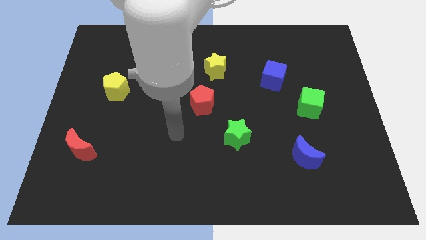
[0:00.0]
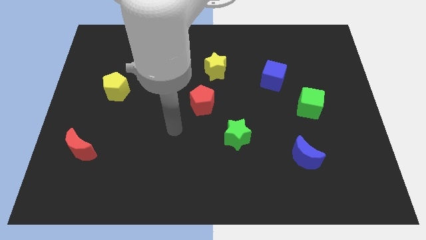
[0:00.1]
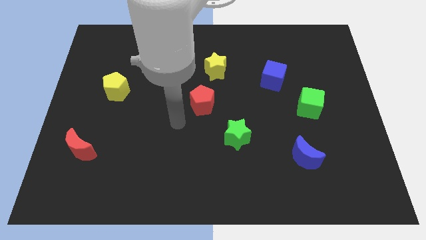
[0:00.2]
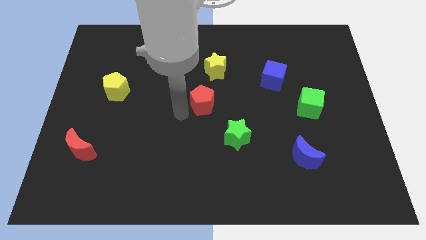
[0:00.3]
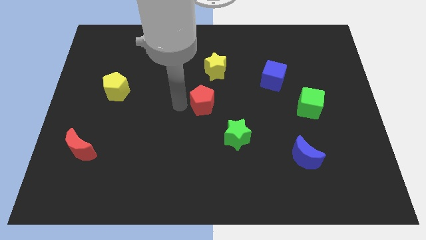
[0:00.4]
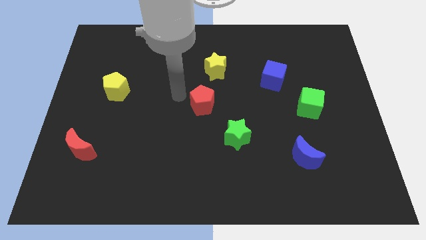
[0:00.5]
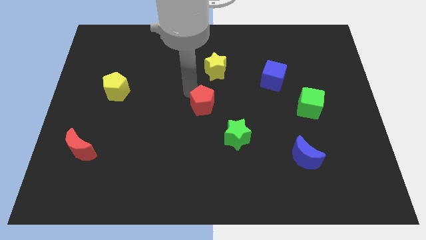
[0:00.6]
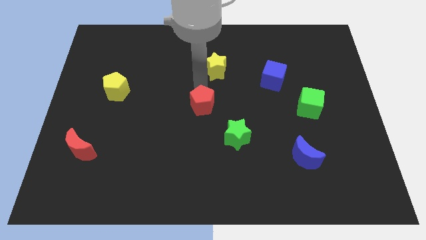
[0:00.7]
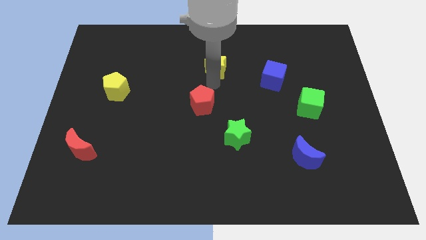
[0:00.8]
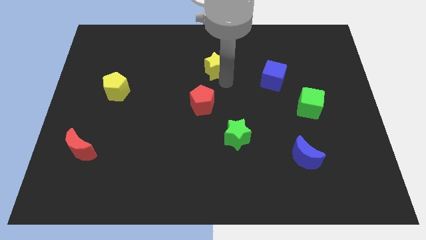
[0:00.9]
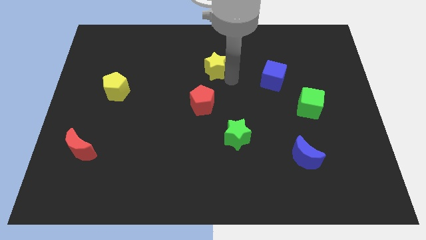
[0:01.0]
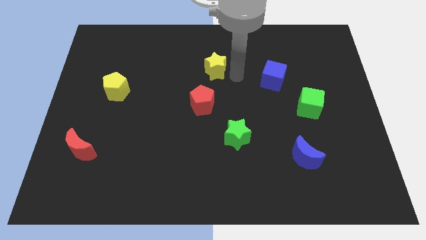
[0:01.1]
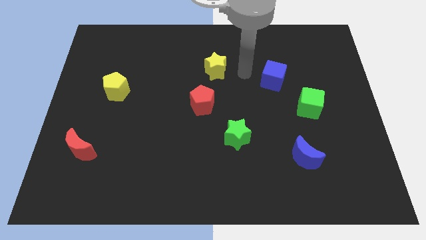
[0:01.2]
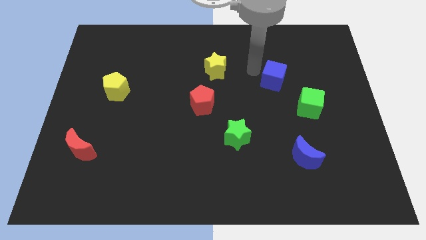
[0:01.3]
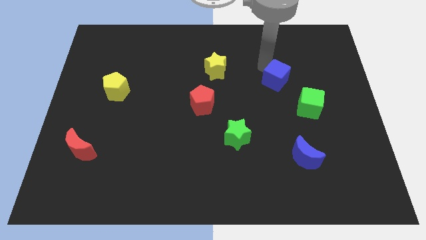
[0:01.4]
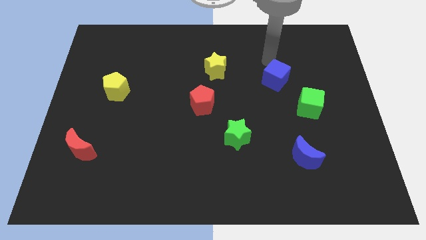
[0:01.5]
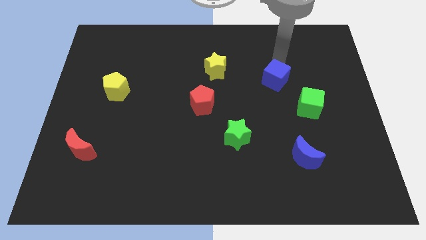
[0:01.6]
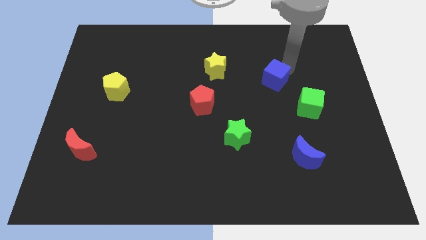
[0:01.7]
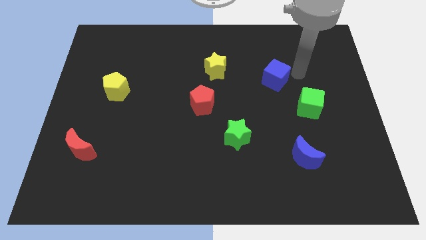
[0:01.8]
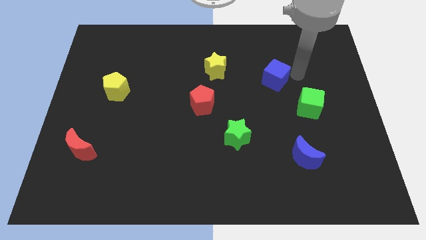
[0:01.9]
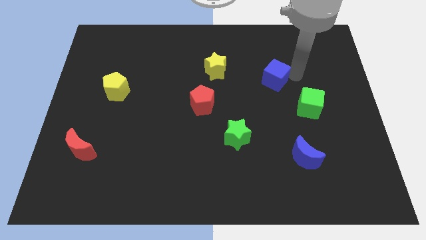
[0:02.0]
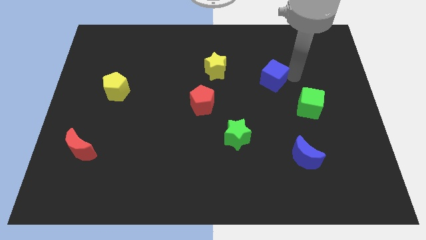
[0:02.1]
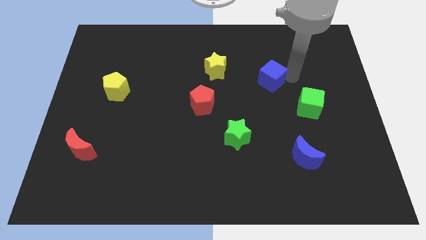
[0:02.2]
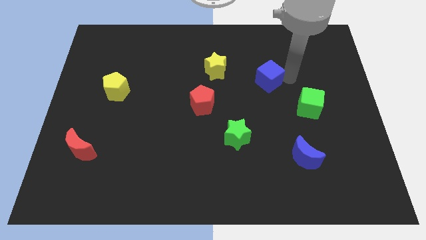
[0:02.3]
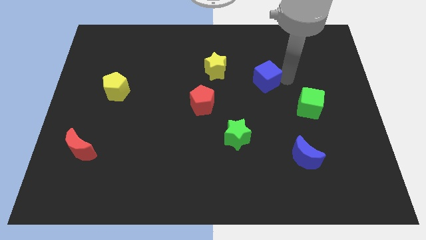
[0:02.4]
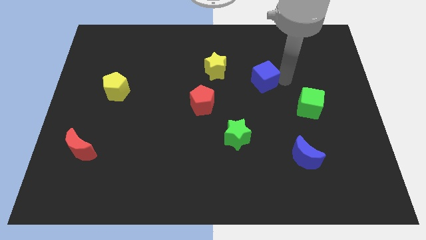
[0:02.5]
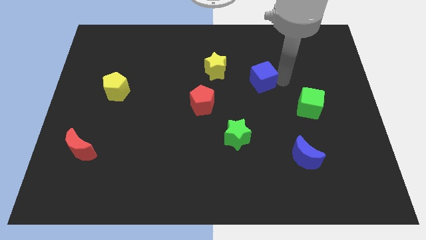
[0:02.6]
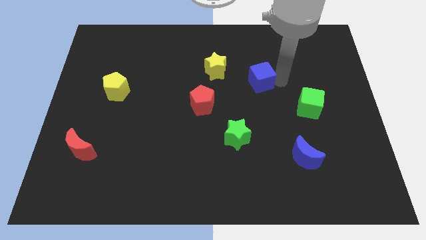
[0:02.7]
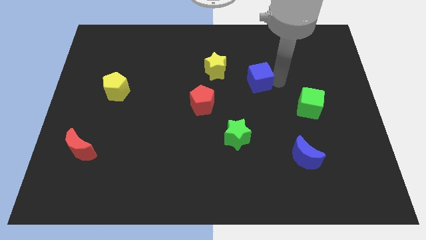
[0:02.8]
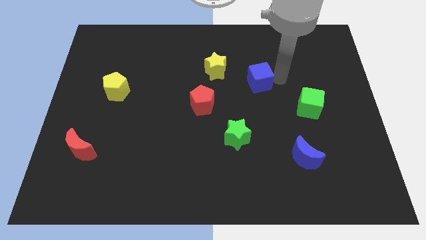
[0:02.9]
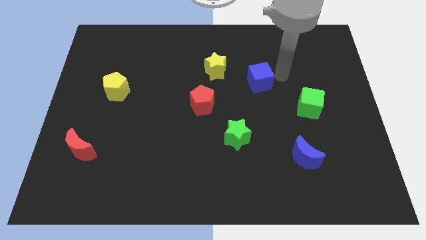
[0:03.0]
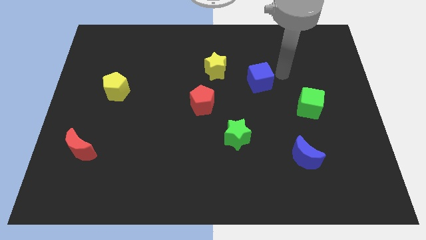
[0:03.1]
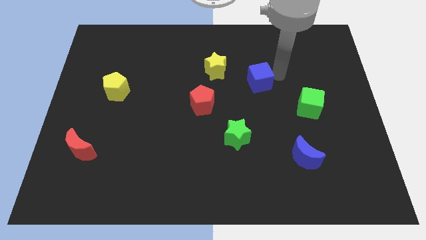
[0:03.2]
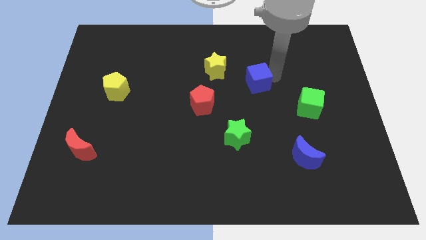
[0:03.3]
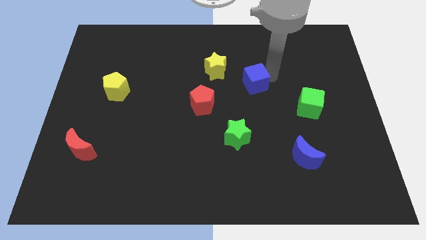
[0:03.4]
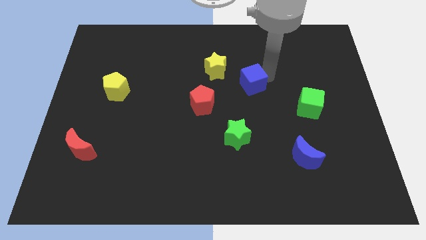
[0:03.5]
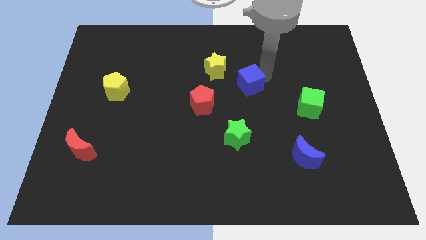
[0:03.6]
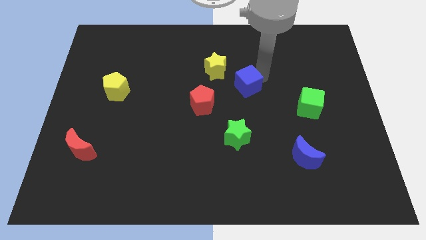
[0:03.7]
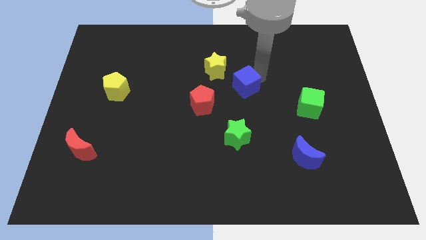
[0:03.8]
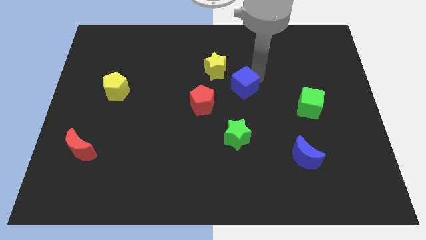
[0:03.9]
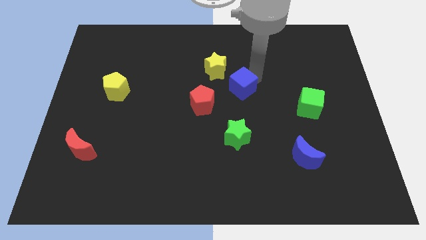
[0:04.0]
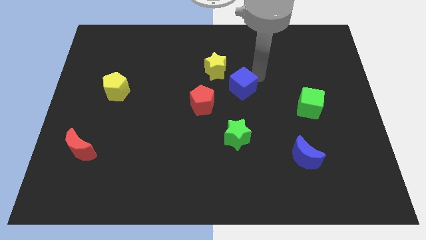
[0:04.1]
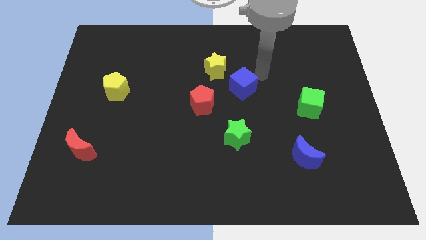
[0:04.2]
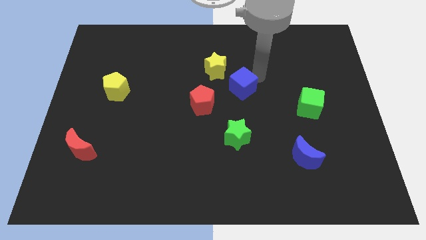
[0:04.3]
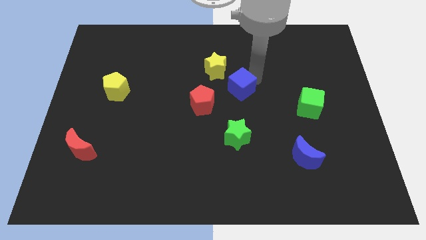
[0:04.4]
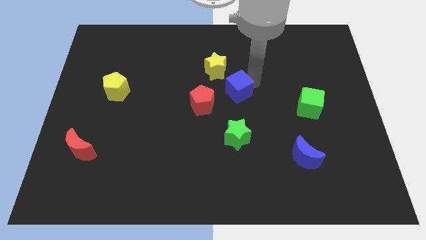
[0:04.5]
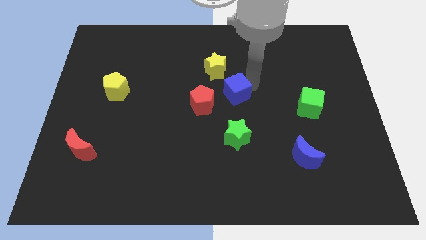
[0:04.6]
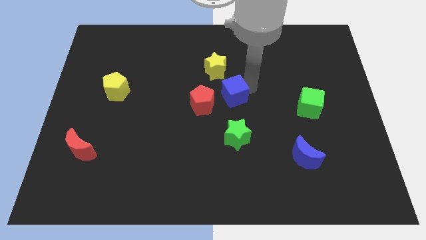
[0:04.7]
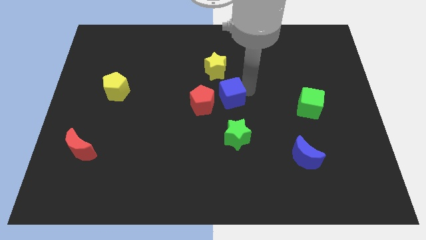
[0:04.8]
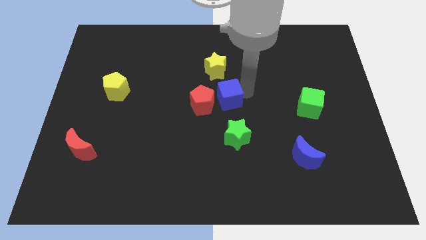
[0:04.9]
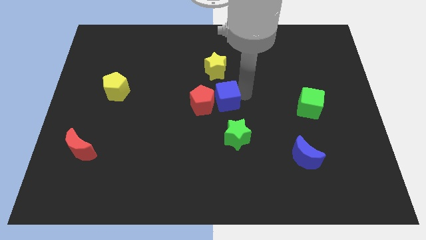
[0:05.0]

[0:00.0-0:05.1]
push the blue cube next to the red pentagon
